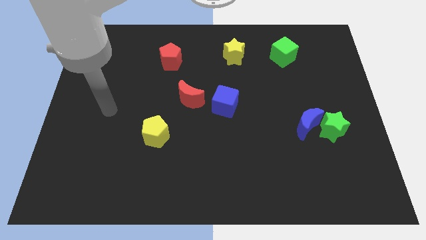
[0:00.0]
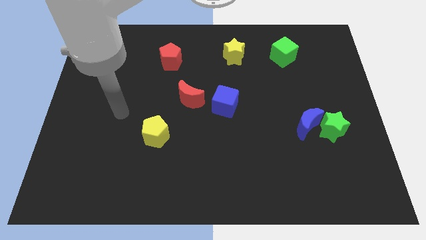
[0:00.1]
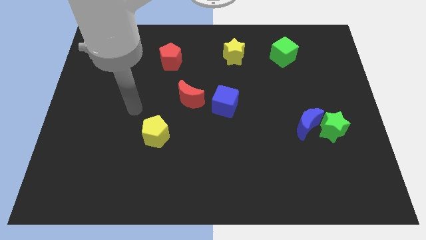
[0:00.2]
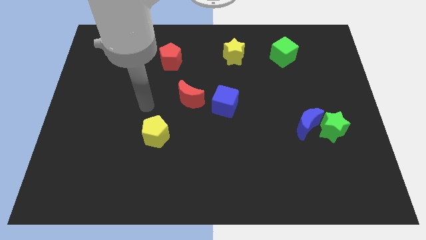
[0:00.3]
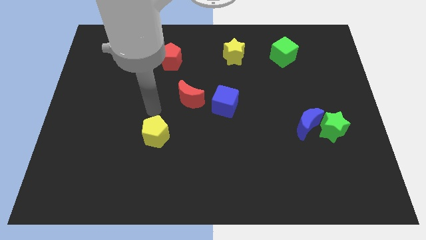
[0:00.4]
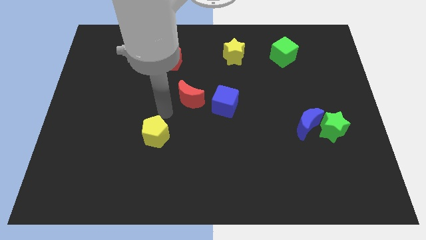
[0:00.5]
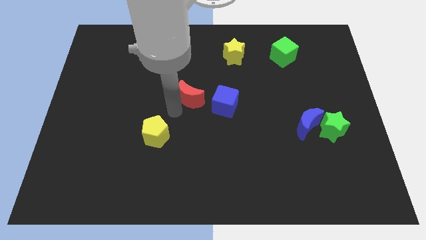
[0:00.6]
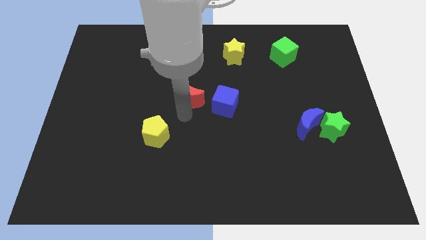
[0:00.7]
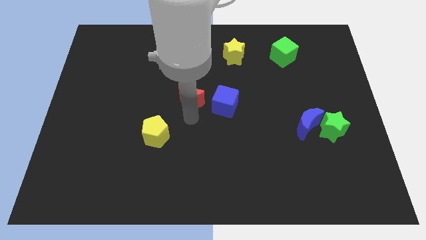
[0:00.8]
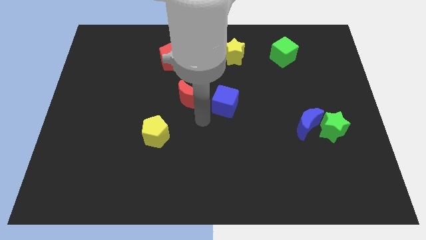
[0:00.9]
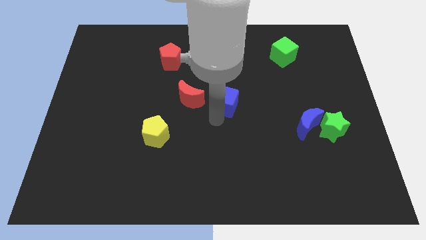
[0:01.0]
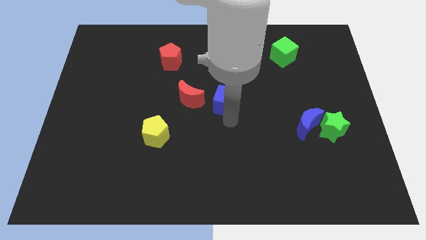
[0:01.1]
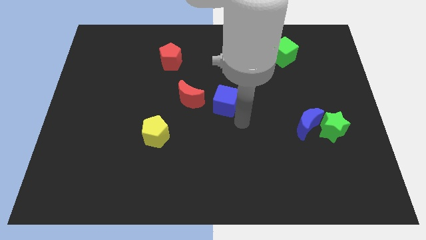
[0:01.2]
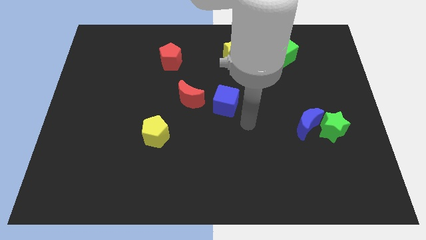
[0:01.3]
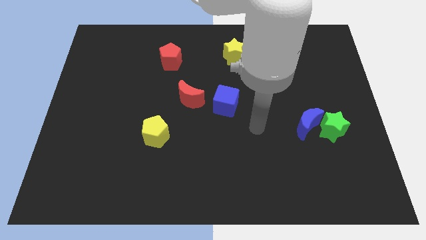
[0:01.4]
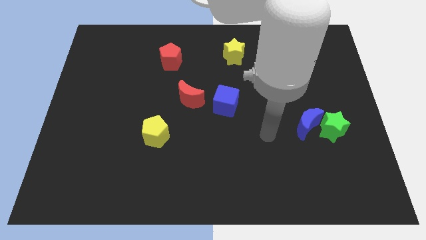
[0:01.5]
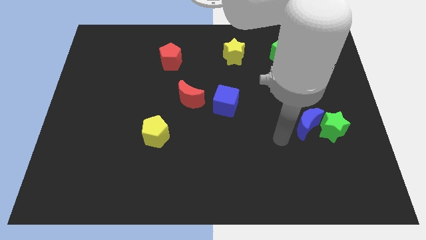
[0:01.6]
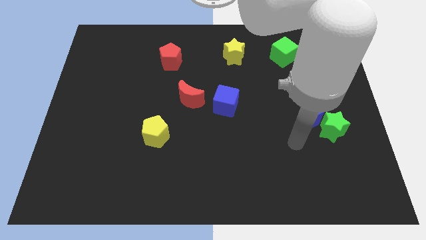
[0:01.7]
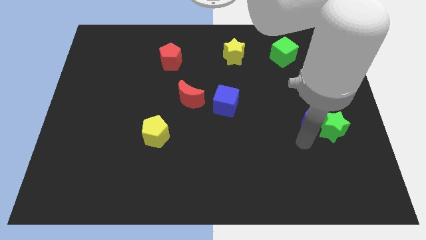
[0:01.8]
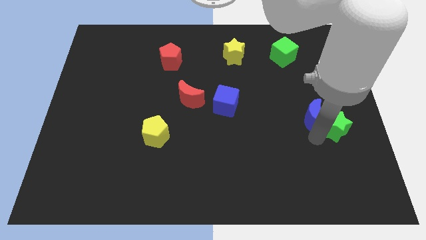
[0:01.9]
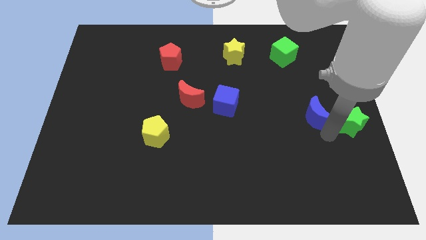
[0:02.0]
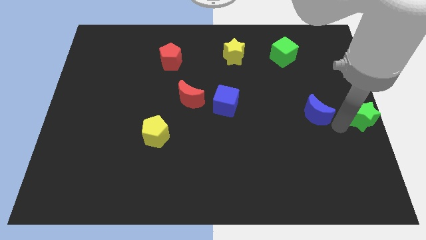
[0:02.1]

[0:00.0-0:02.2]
pull the blue moon apart from the green star

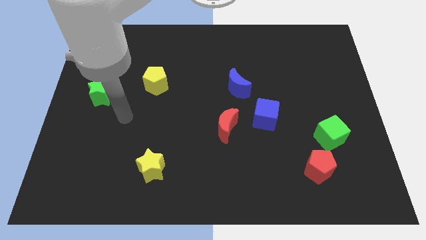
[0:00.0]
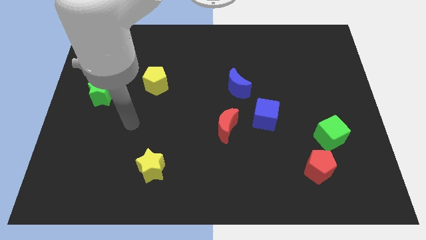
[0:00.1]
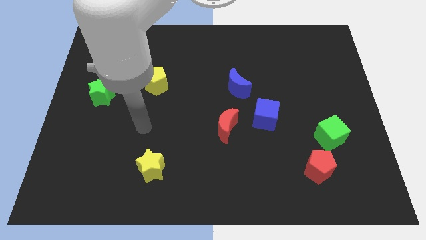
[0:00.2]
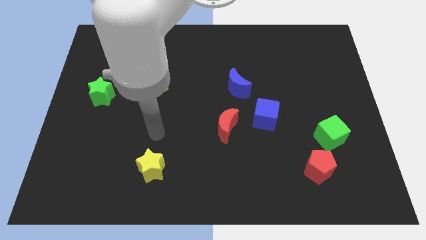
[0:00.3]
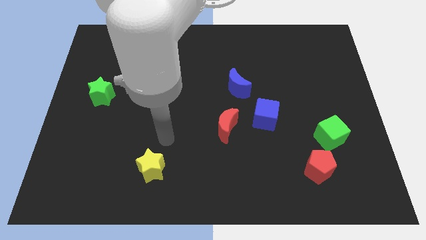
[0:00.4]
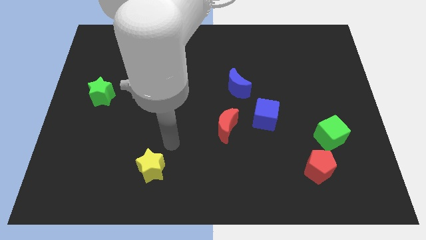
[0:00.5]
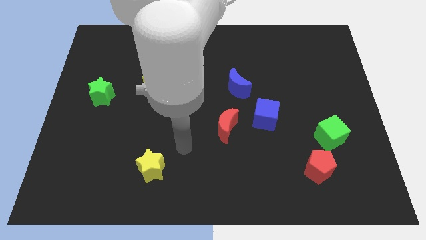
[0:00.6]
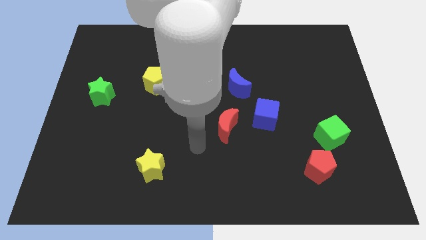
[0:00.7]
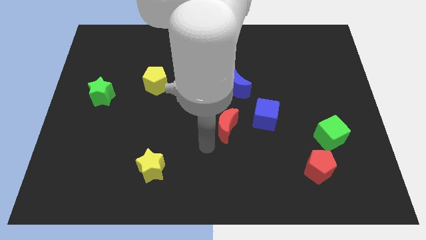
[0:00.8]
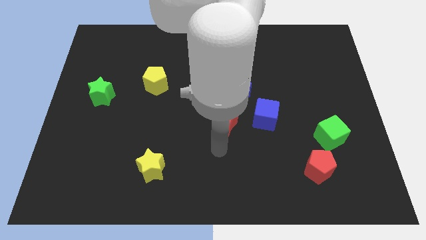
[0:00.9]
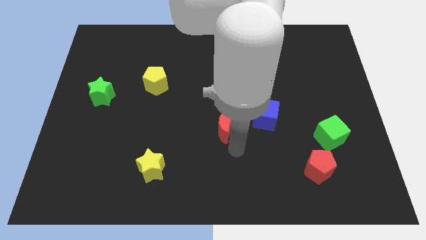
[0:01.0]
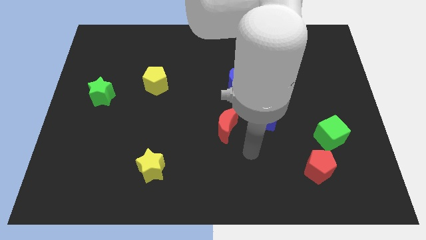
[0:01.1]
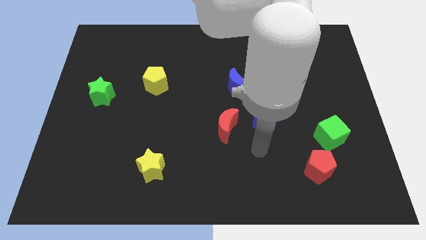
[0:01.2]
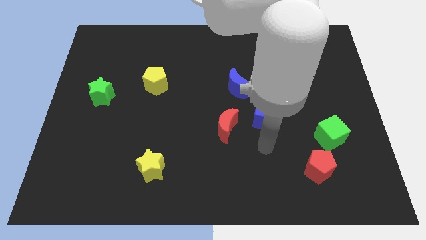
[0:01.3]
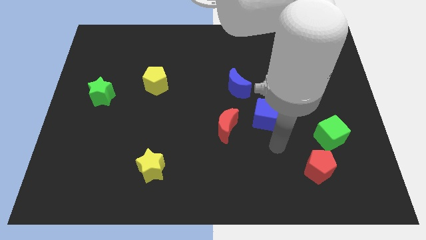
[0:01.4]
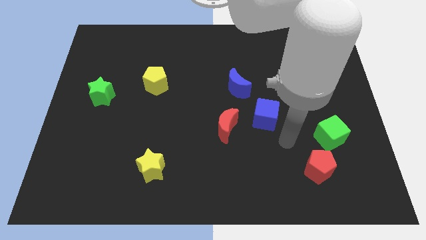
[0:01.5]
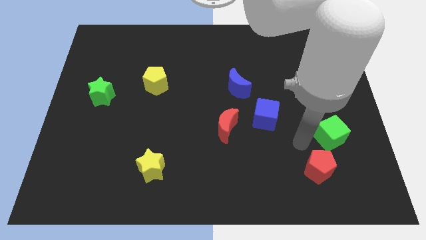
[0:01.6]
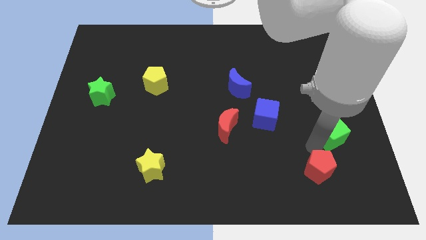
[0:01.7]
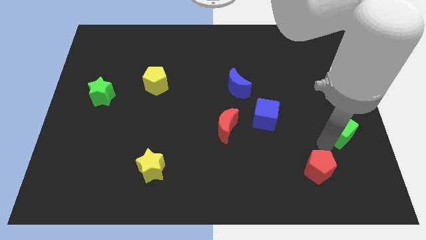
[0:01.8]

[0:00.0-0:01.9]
move the red pentagon away from the green cube

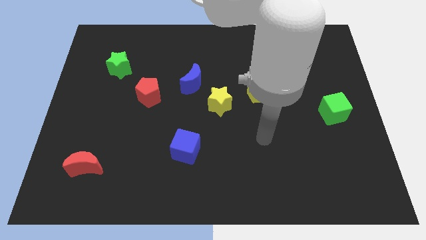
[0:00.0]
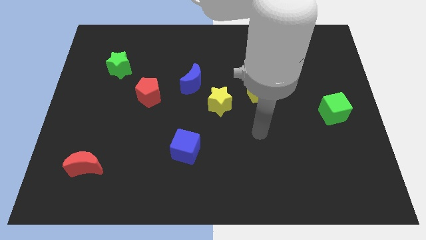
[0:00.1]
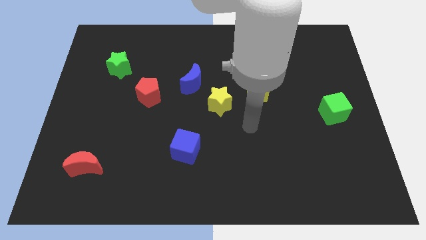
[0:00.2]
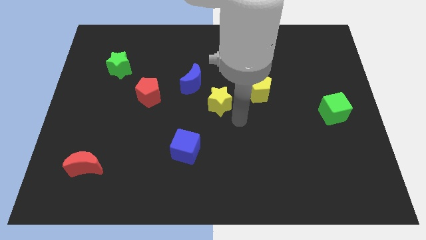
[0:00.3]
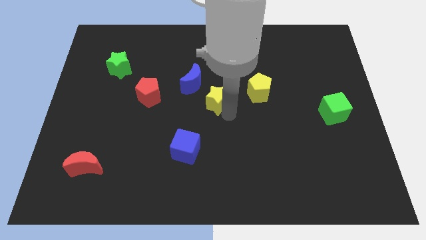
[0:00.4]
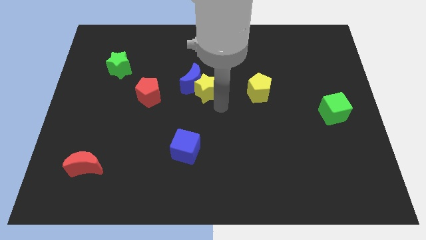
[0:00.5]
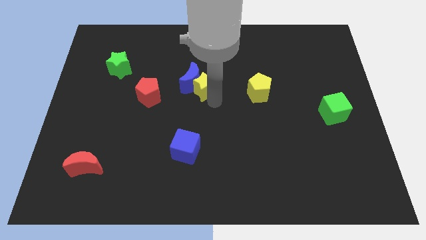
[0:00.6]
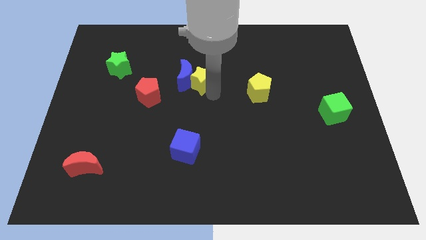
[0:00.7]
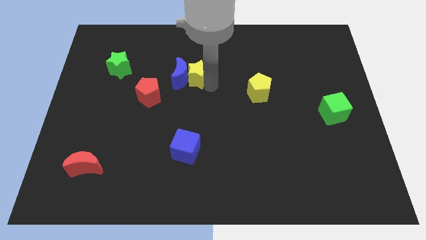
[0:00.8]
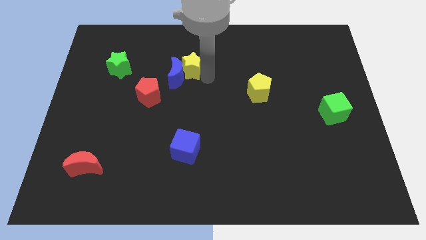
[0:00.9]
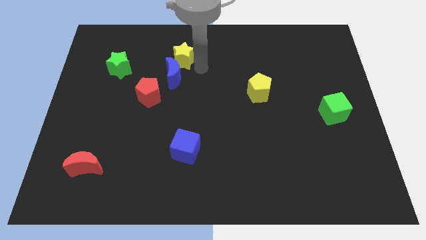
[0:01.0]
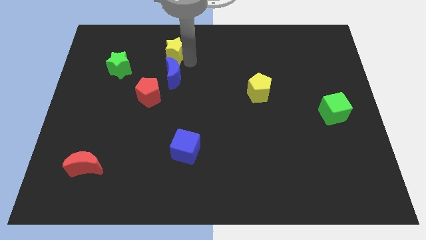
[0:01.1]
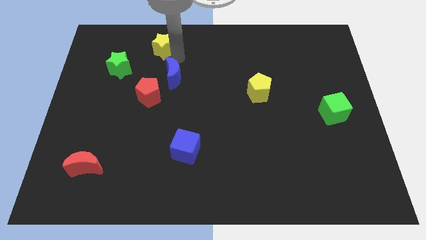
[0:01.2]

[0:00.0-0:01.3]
separate the blue moon from the yellow star

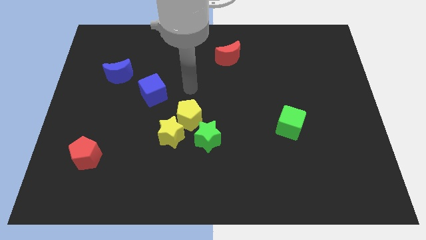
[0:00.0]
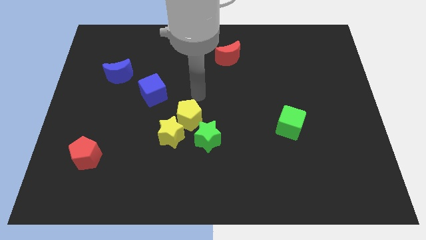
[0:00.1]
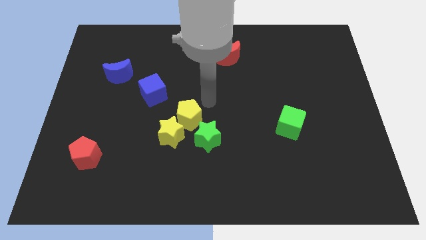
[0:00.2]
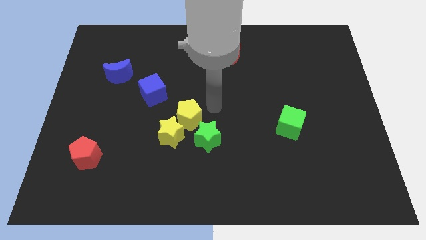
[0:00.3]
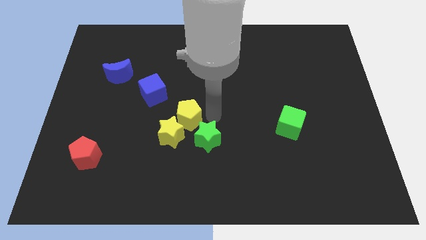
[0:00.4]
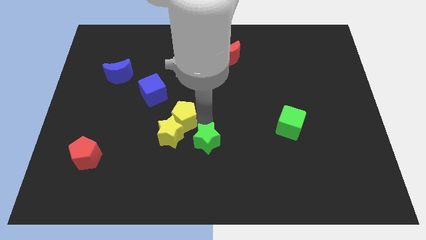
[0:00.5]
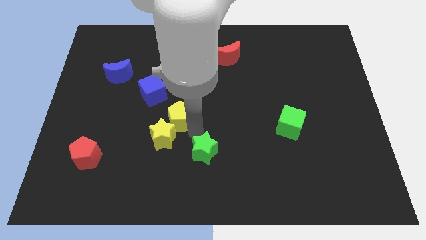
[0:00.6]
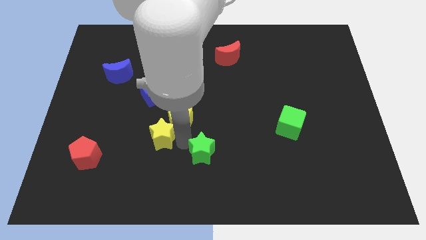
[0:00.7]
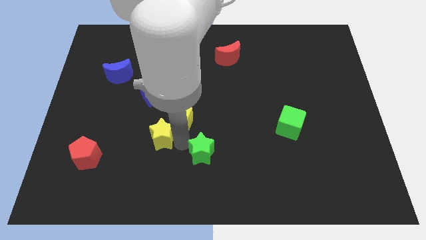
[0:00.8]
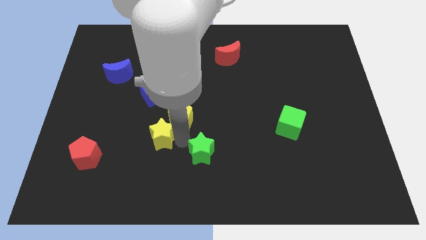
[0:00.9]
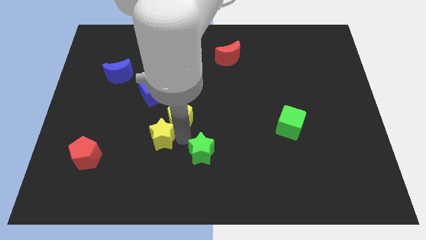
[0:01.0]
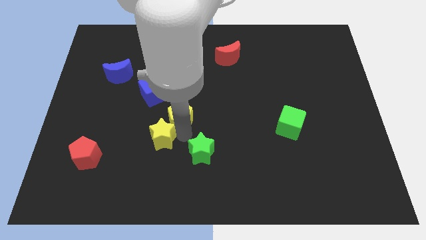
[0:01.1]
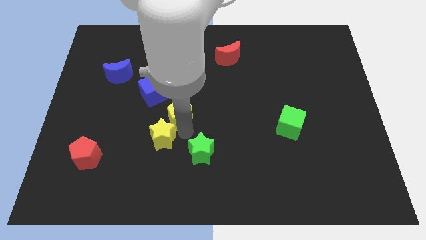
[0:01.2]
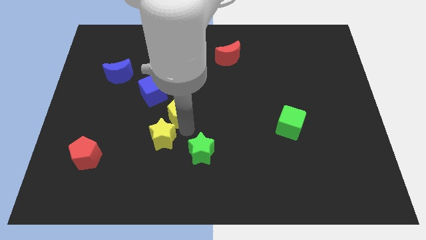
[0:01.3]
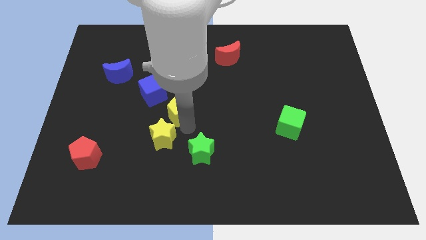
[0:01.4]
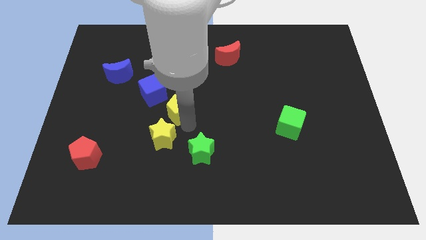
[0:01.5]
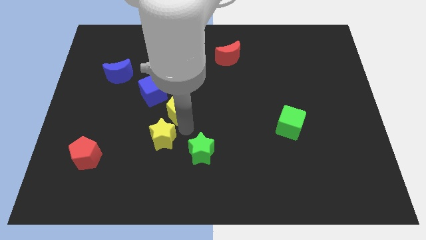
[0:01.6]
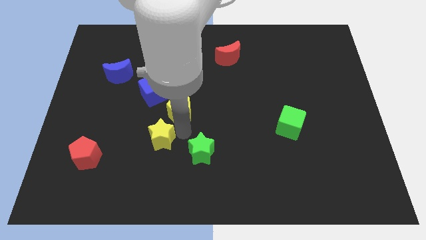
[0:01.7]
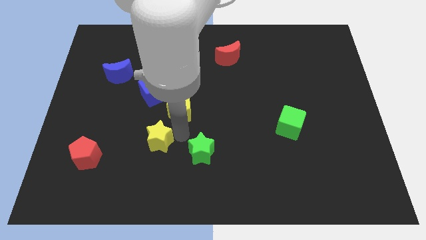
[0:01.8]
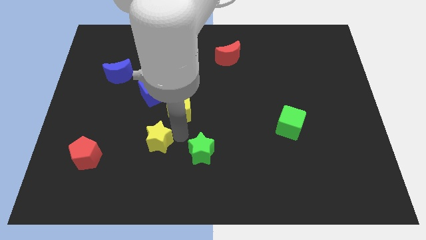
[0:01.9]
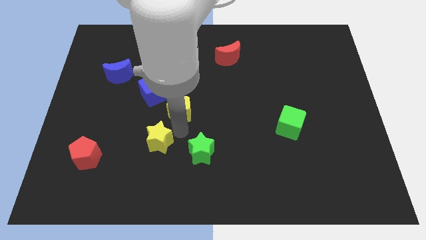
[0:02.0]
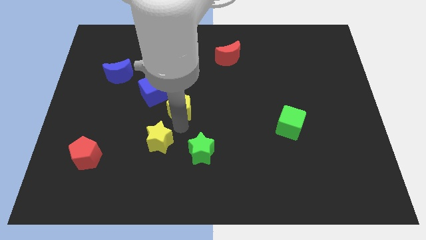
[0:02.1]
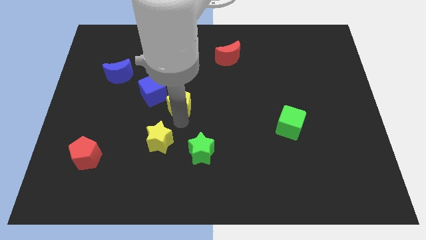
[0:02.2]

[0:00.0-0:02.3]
move the yellow pentagon away from the yellow star and green star

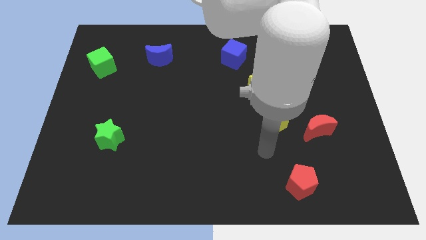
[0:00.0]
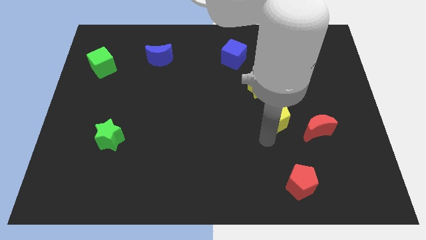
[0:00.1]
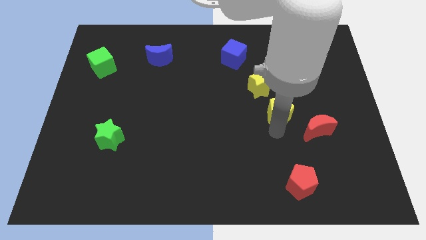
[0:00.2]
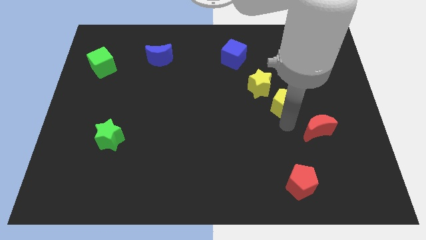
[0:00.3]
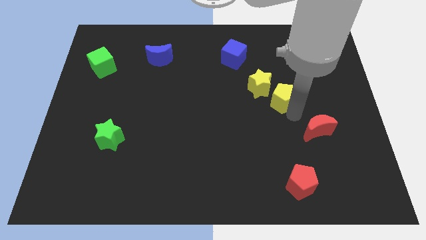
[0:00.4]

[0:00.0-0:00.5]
pull the red moon apart from the yellow pentagon

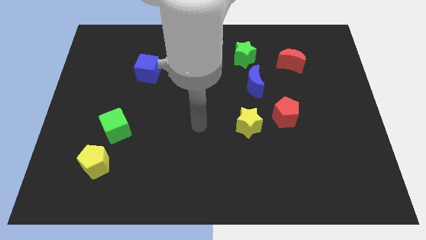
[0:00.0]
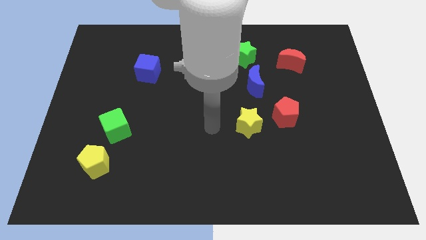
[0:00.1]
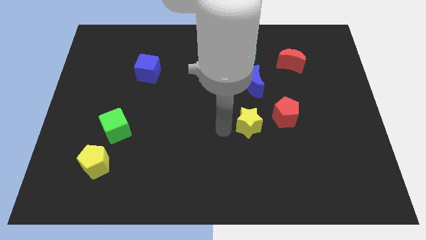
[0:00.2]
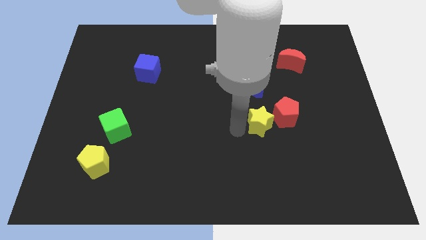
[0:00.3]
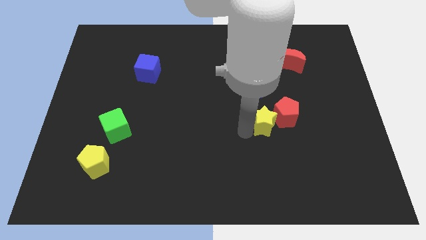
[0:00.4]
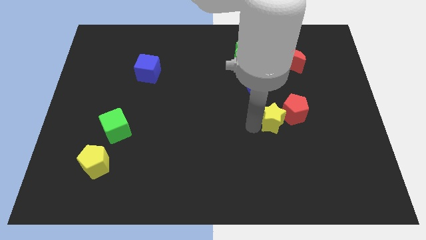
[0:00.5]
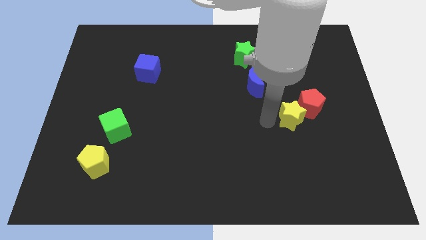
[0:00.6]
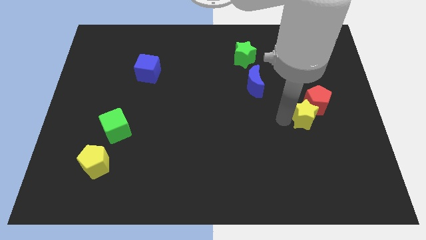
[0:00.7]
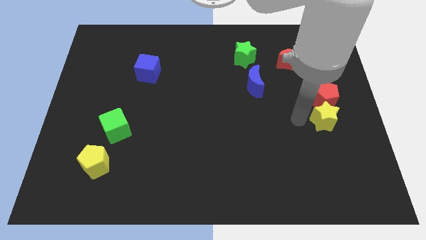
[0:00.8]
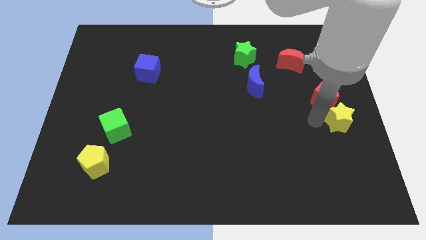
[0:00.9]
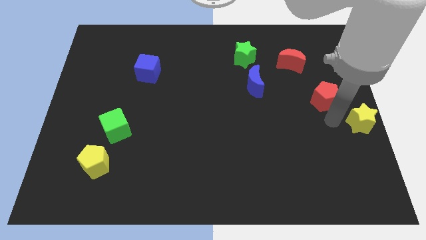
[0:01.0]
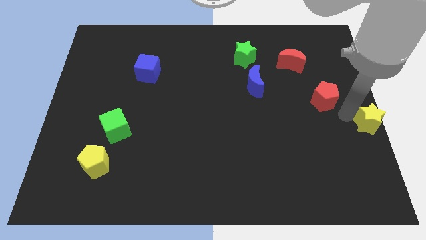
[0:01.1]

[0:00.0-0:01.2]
separate the red pentagon from the yellow star
